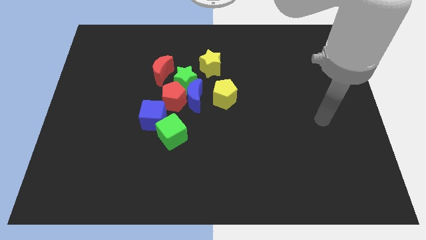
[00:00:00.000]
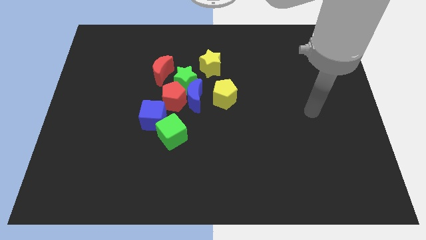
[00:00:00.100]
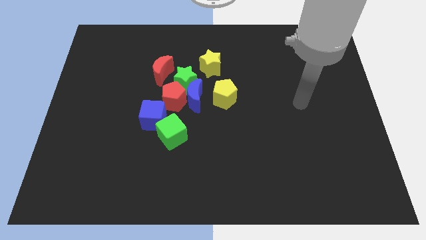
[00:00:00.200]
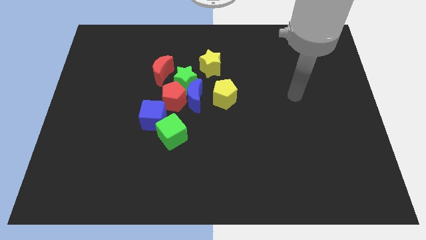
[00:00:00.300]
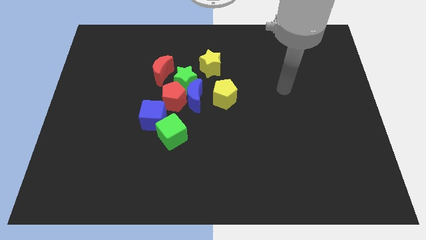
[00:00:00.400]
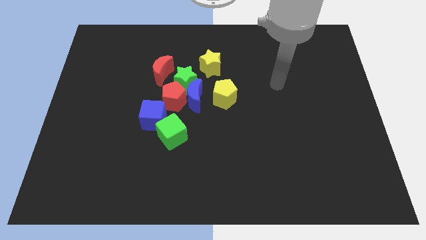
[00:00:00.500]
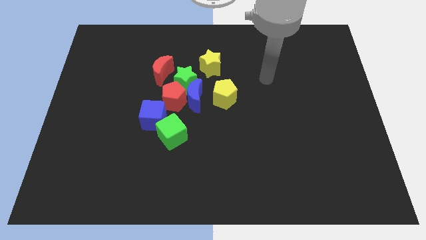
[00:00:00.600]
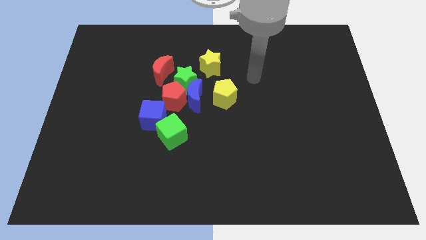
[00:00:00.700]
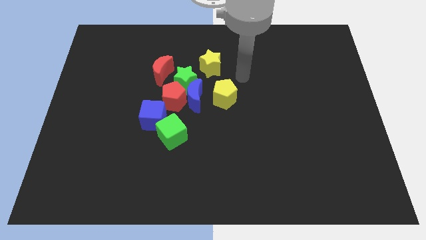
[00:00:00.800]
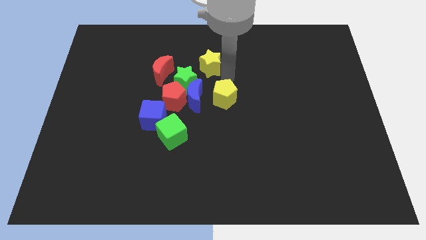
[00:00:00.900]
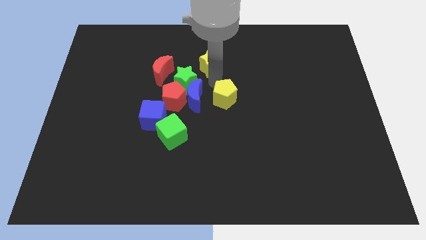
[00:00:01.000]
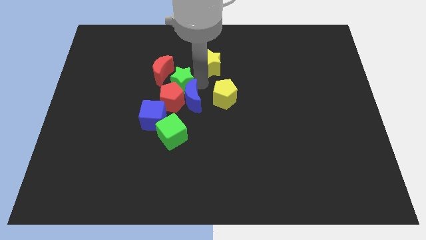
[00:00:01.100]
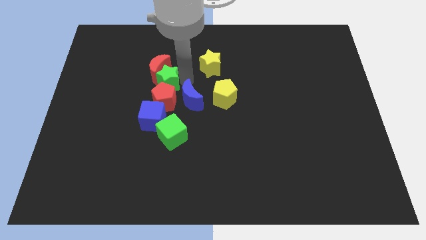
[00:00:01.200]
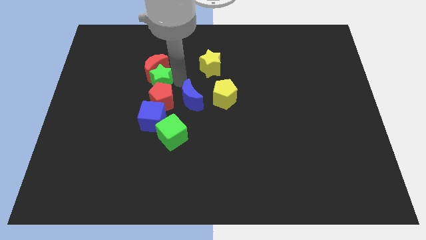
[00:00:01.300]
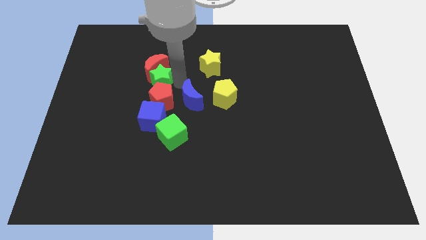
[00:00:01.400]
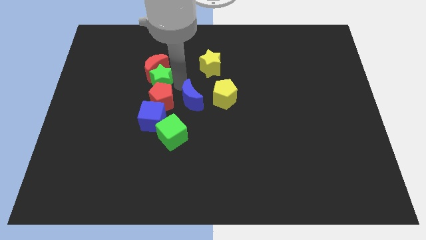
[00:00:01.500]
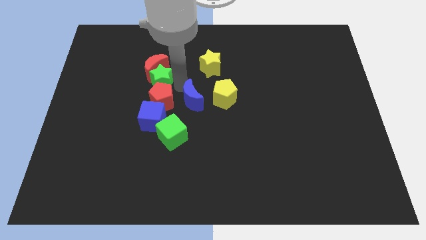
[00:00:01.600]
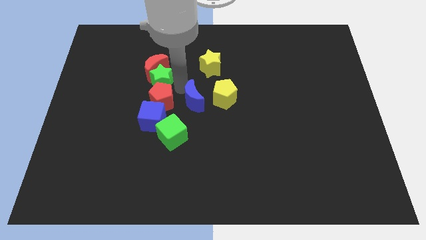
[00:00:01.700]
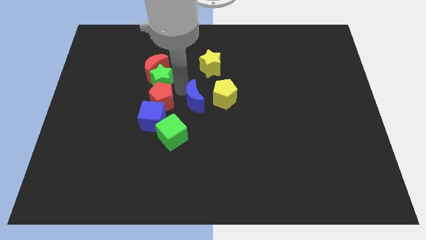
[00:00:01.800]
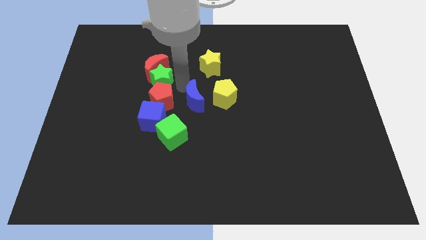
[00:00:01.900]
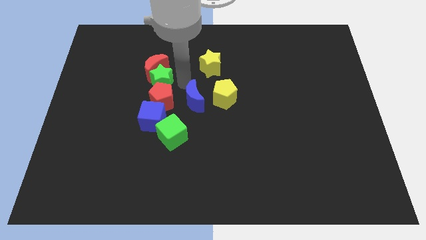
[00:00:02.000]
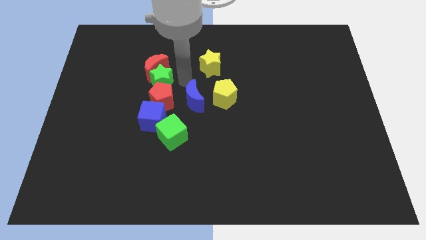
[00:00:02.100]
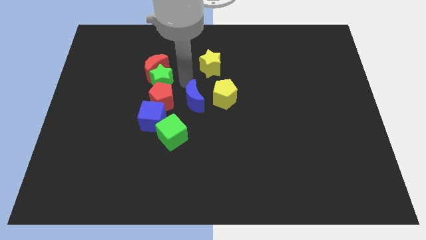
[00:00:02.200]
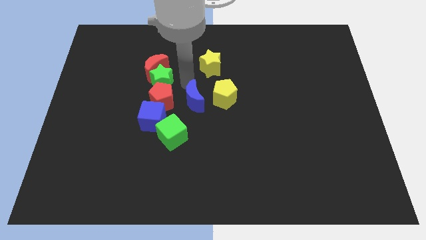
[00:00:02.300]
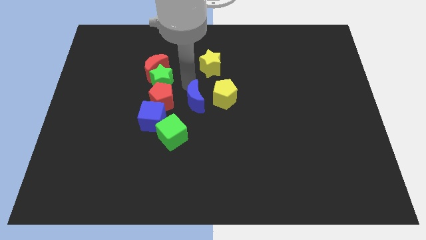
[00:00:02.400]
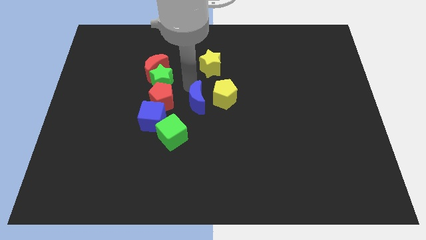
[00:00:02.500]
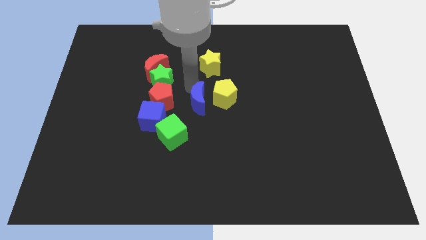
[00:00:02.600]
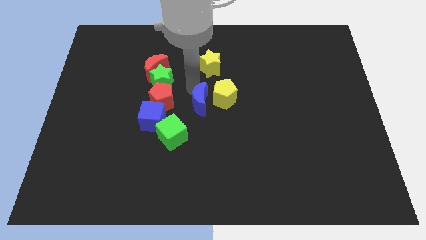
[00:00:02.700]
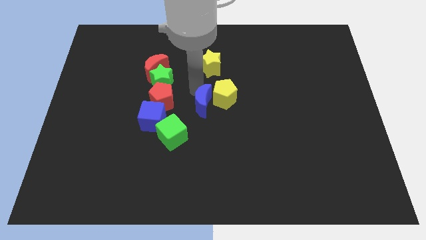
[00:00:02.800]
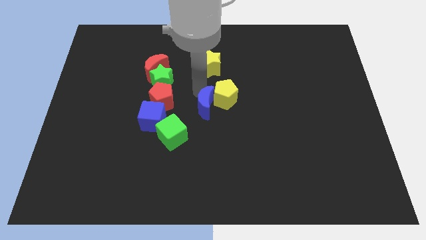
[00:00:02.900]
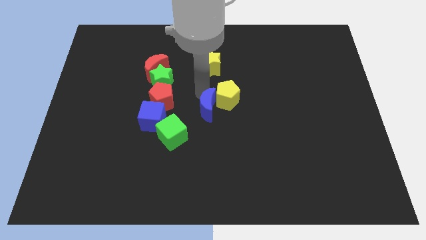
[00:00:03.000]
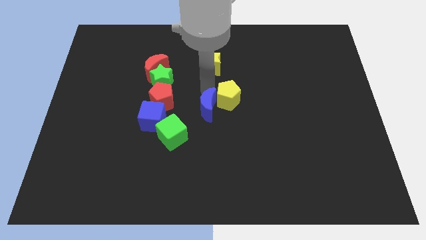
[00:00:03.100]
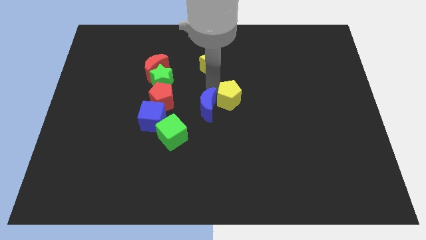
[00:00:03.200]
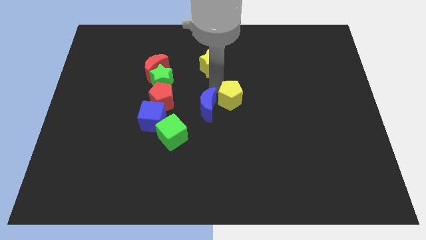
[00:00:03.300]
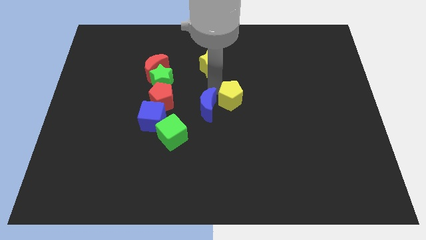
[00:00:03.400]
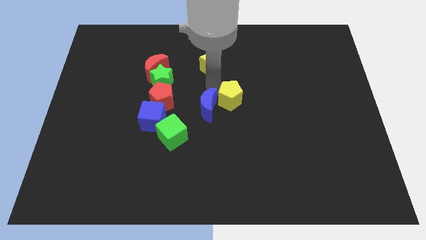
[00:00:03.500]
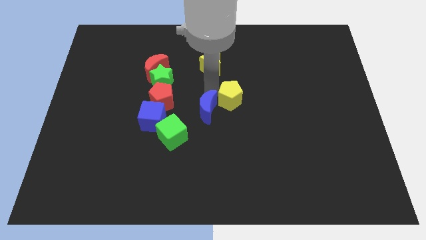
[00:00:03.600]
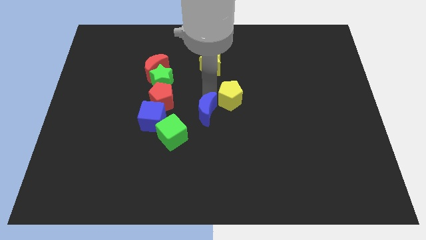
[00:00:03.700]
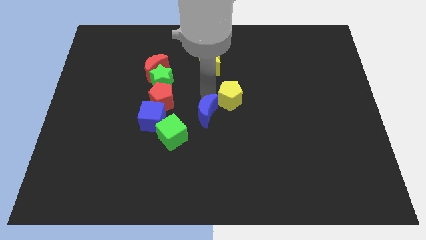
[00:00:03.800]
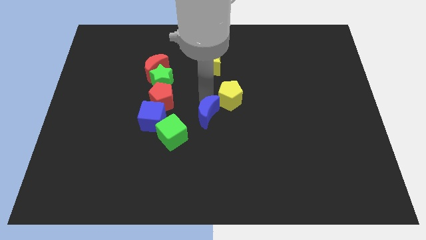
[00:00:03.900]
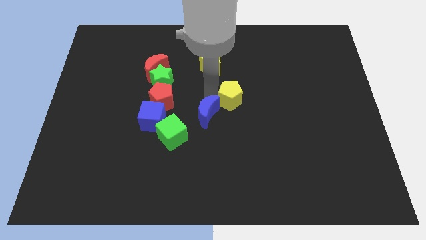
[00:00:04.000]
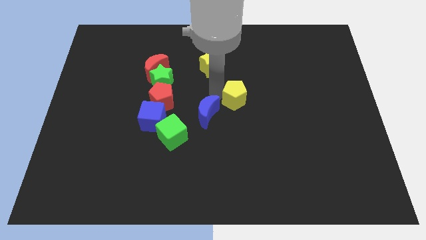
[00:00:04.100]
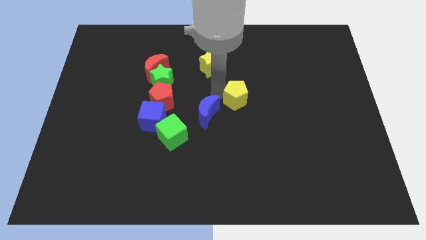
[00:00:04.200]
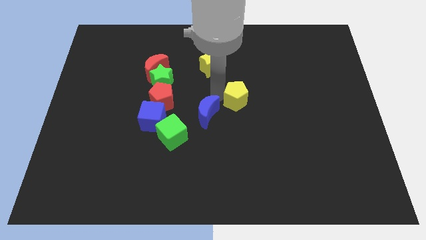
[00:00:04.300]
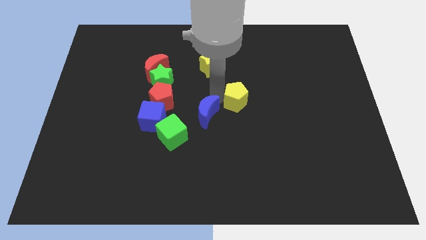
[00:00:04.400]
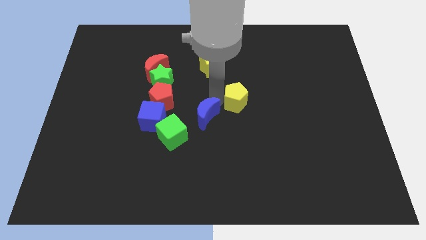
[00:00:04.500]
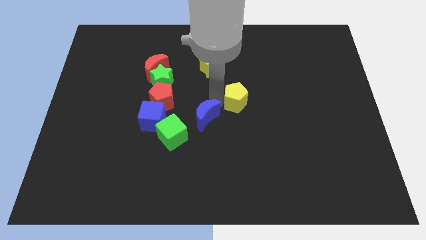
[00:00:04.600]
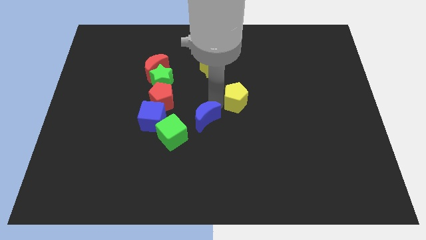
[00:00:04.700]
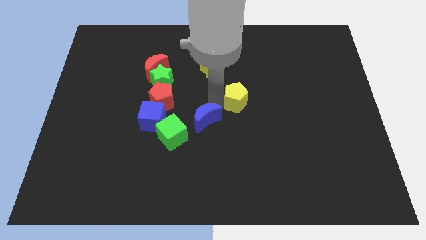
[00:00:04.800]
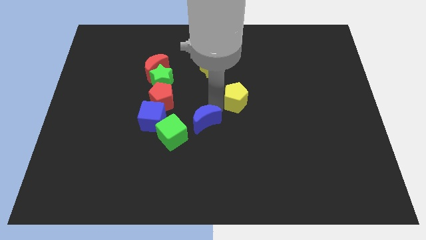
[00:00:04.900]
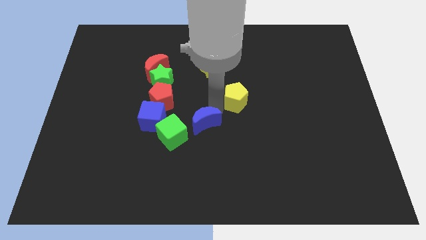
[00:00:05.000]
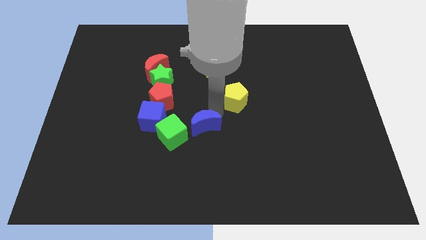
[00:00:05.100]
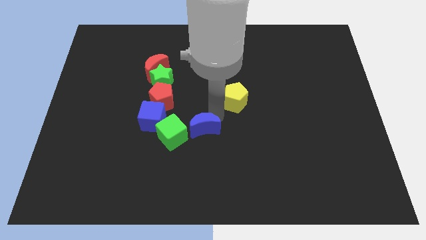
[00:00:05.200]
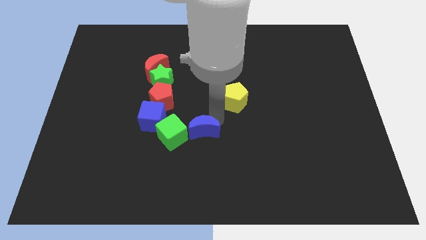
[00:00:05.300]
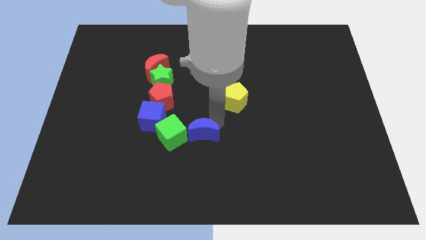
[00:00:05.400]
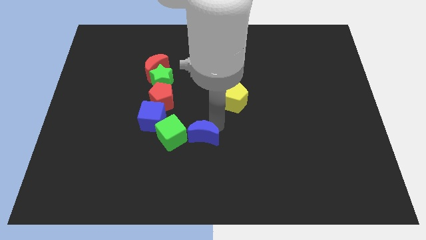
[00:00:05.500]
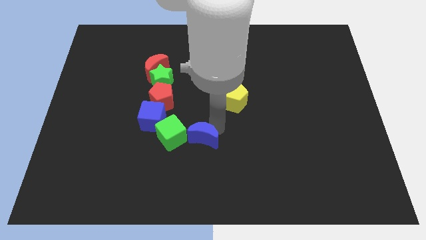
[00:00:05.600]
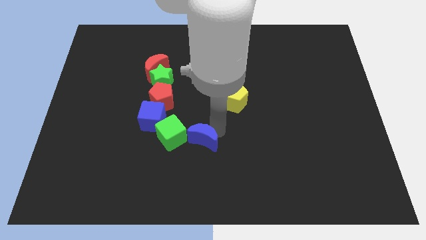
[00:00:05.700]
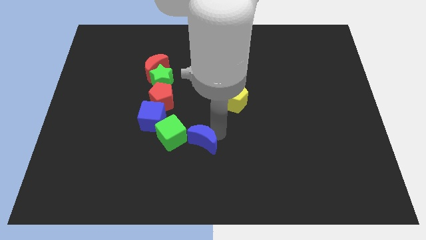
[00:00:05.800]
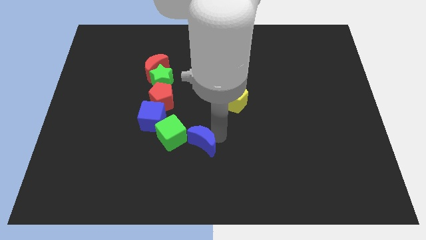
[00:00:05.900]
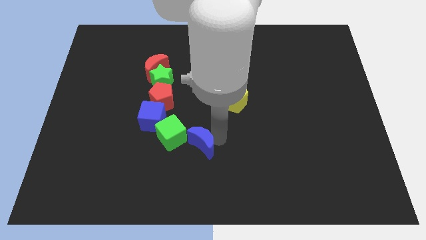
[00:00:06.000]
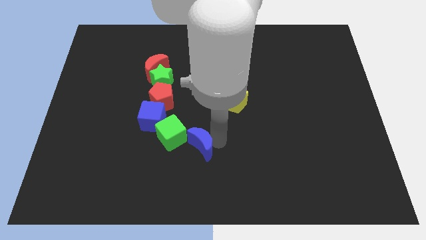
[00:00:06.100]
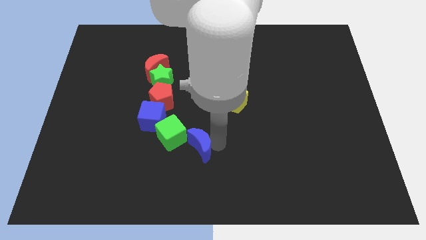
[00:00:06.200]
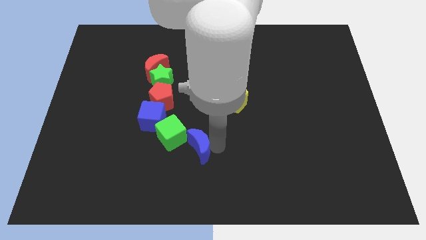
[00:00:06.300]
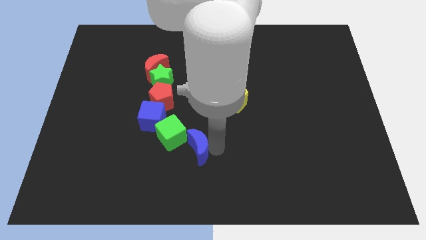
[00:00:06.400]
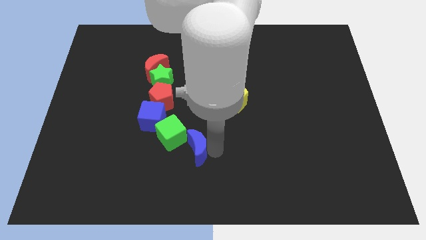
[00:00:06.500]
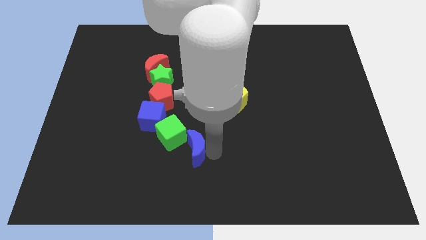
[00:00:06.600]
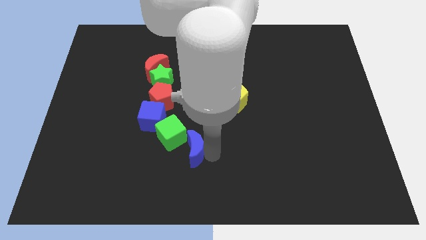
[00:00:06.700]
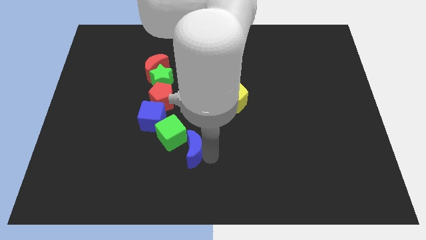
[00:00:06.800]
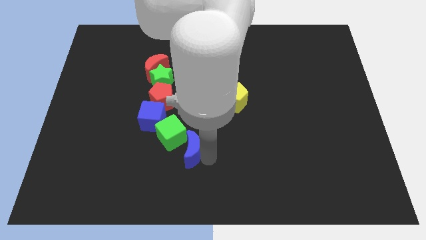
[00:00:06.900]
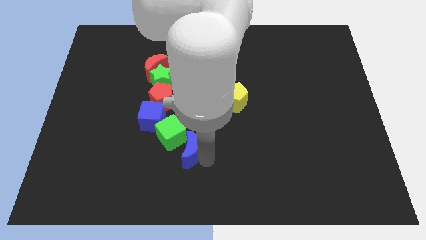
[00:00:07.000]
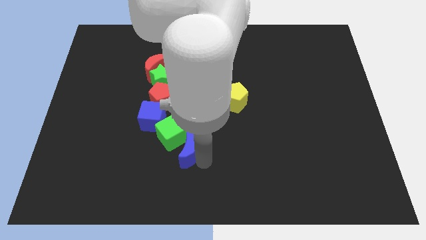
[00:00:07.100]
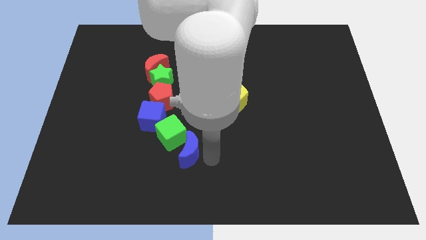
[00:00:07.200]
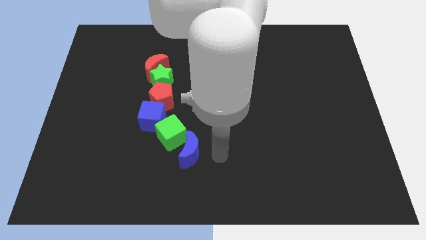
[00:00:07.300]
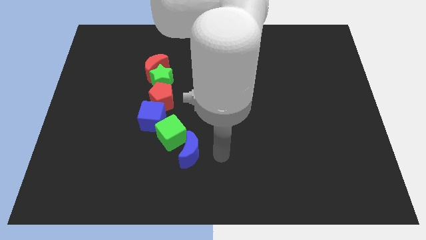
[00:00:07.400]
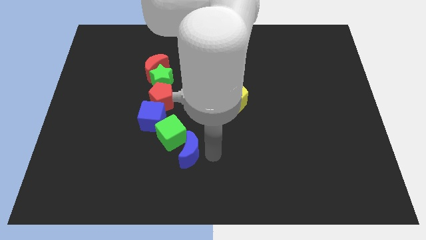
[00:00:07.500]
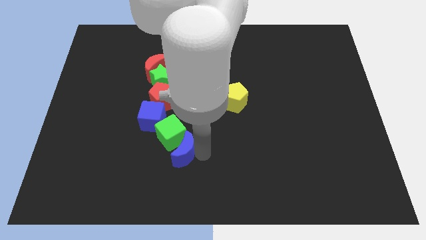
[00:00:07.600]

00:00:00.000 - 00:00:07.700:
slightly move the blue moon down and to the left

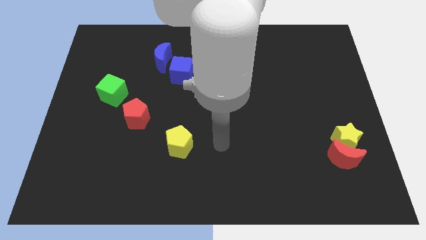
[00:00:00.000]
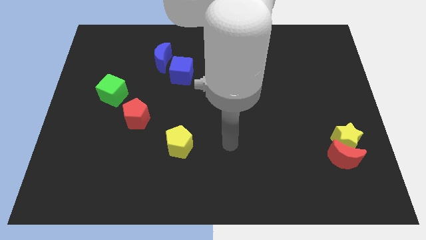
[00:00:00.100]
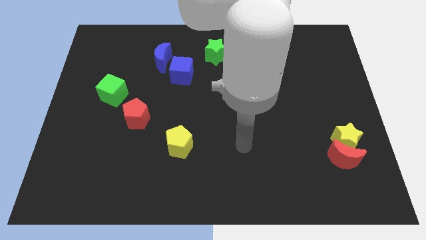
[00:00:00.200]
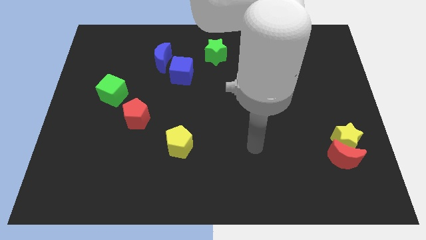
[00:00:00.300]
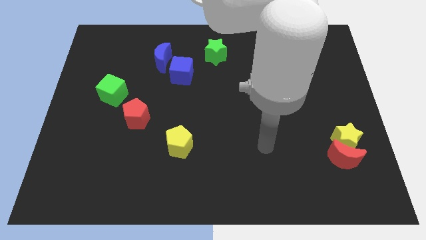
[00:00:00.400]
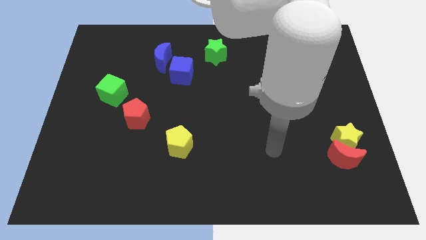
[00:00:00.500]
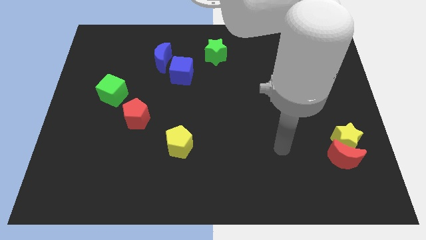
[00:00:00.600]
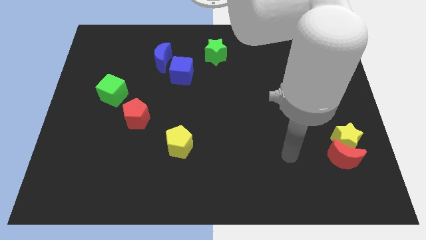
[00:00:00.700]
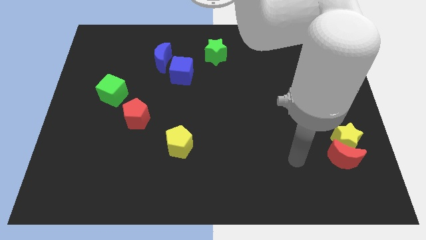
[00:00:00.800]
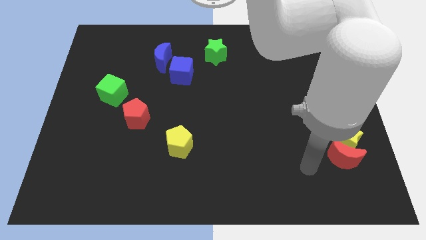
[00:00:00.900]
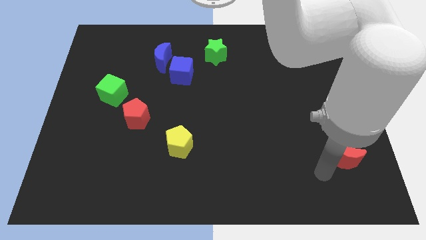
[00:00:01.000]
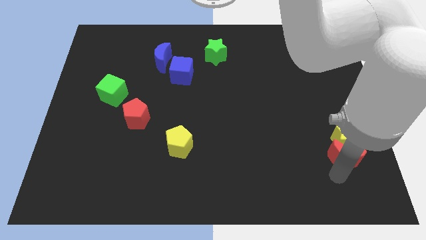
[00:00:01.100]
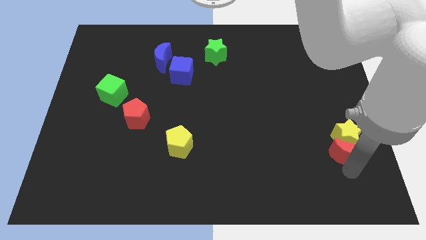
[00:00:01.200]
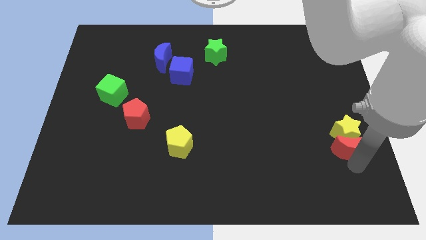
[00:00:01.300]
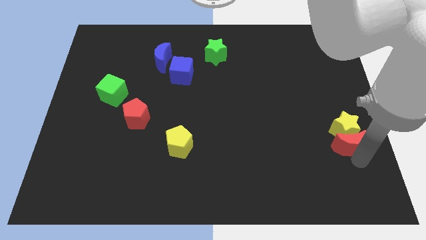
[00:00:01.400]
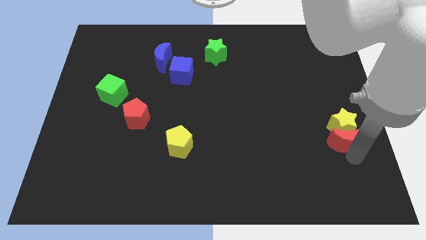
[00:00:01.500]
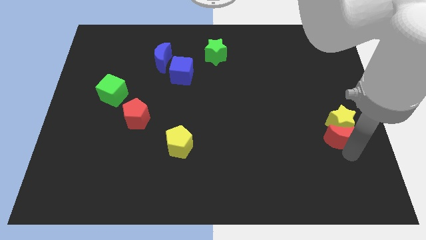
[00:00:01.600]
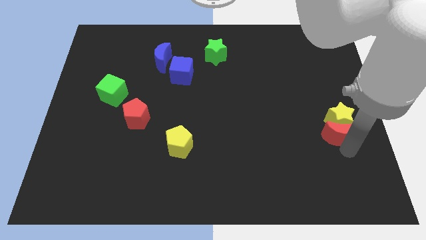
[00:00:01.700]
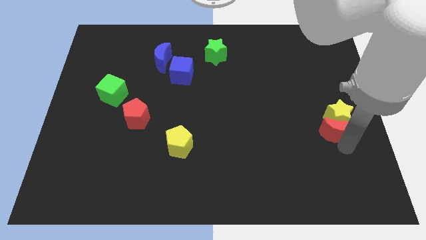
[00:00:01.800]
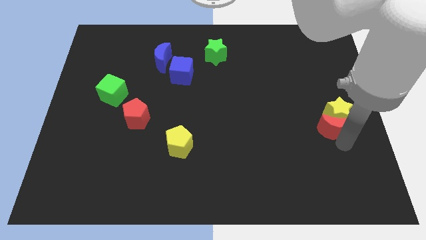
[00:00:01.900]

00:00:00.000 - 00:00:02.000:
slide the yellow star up slightly
